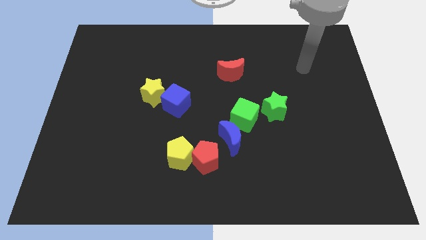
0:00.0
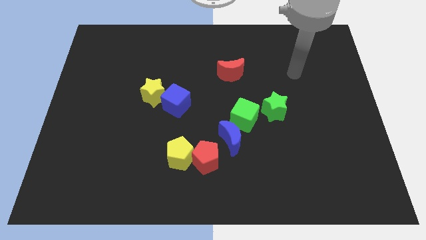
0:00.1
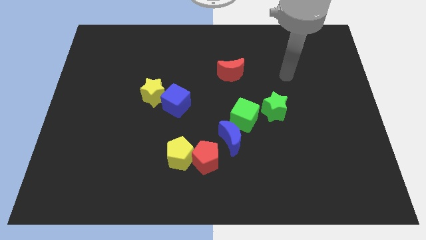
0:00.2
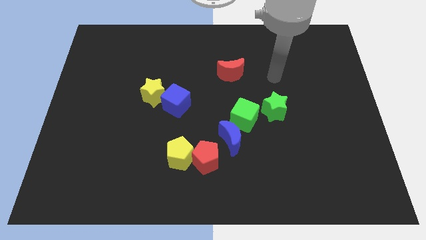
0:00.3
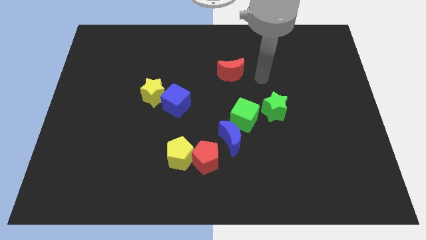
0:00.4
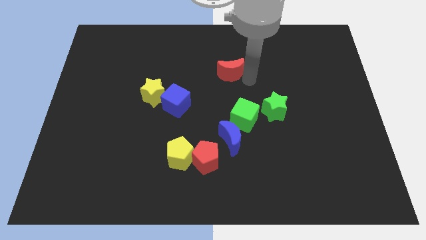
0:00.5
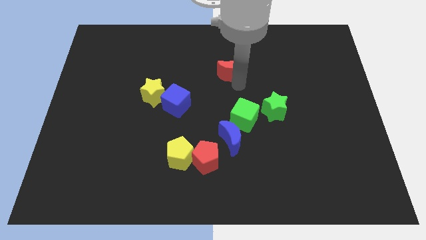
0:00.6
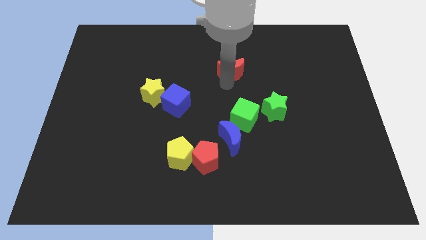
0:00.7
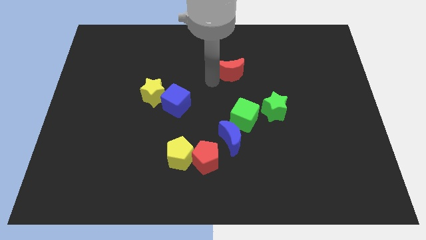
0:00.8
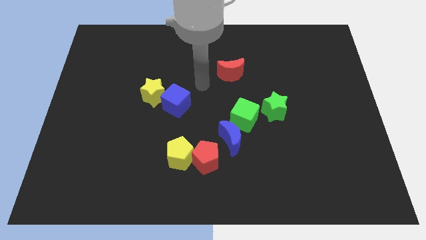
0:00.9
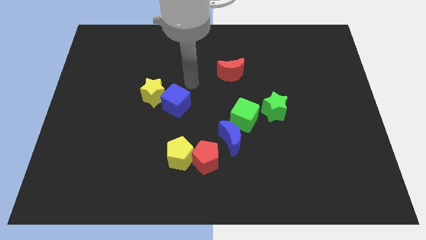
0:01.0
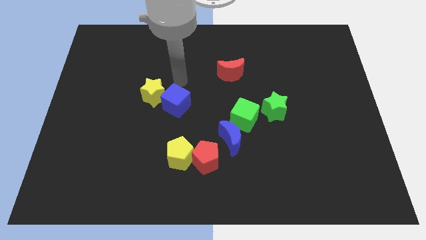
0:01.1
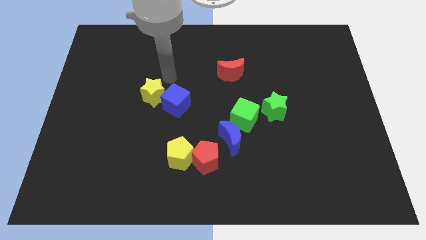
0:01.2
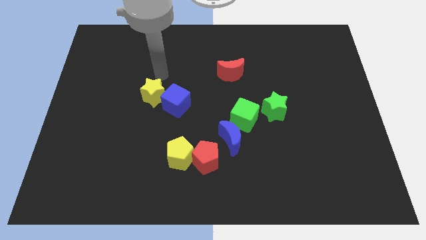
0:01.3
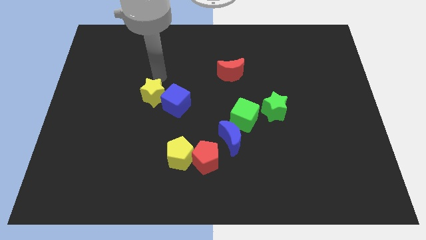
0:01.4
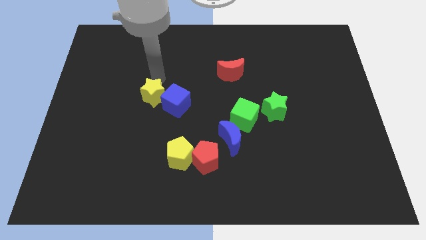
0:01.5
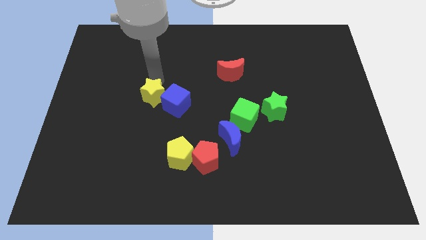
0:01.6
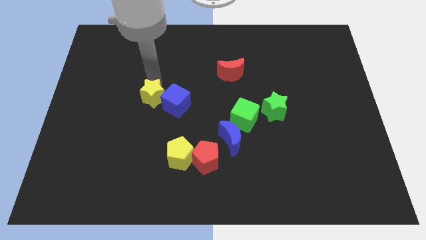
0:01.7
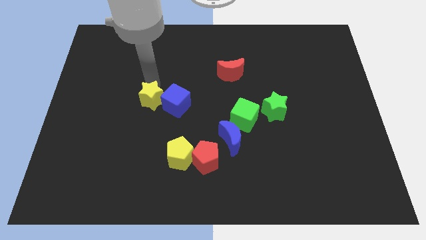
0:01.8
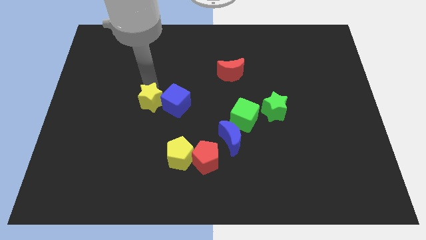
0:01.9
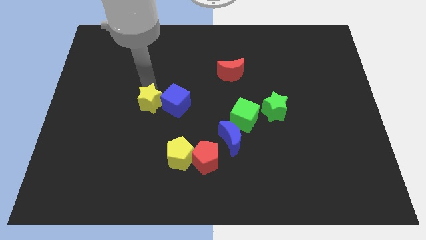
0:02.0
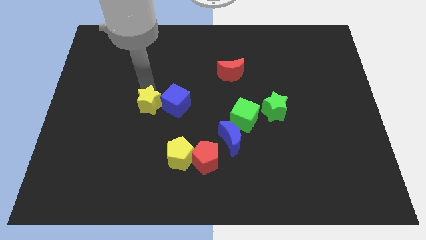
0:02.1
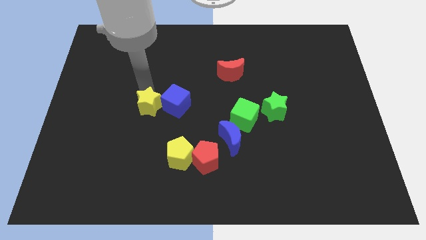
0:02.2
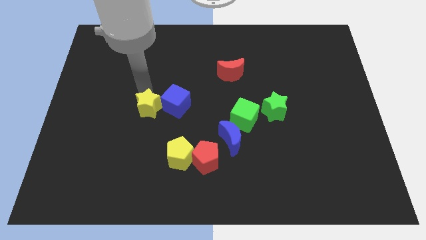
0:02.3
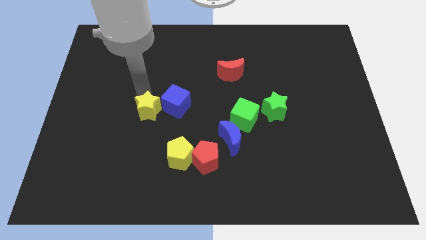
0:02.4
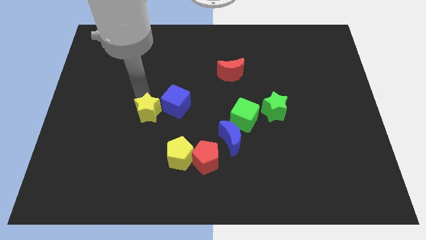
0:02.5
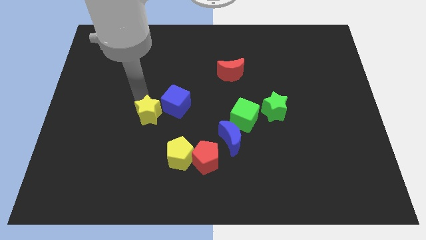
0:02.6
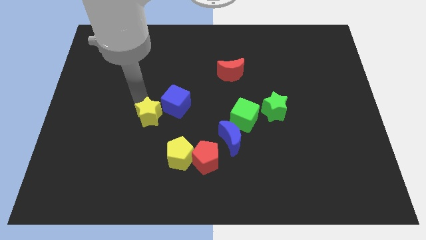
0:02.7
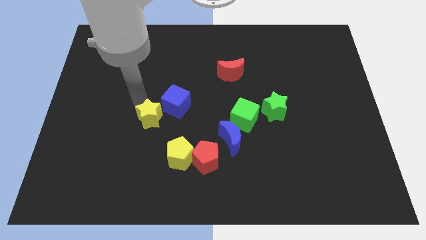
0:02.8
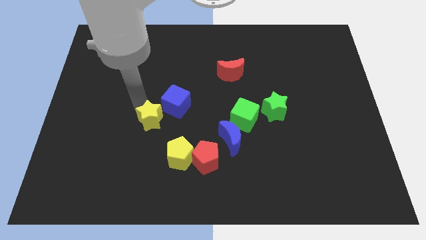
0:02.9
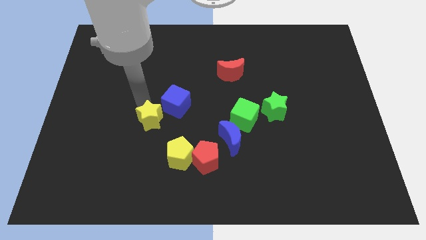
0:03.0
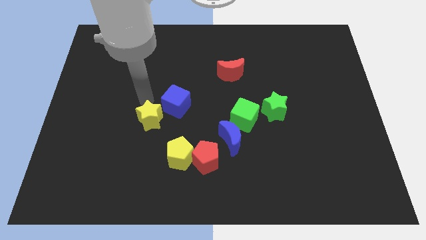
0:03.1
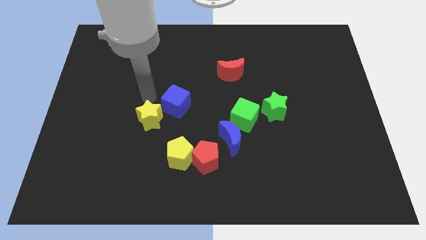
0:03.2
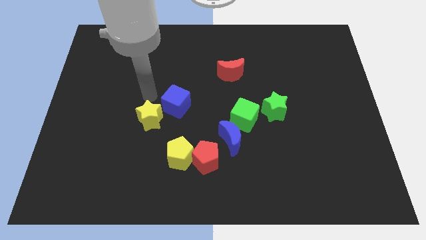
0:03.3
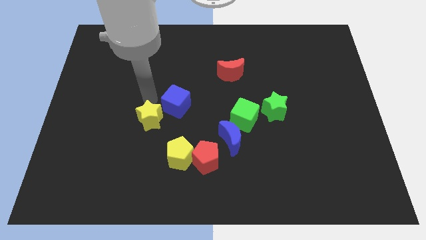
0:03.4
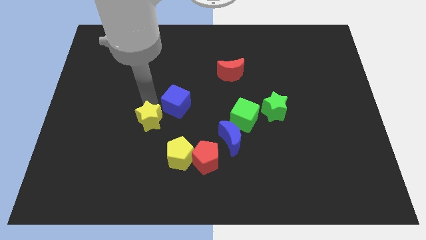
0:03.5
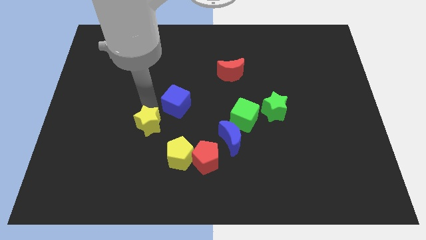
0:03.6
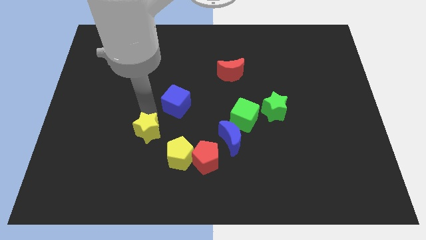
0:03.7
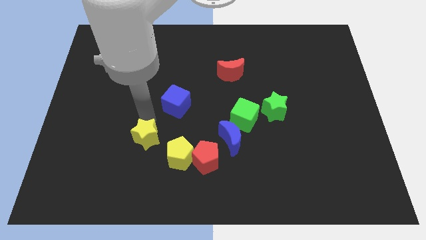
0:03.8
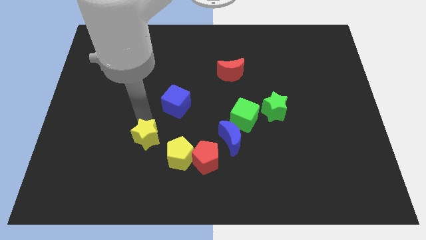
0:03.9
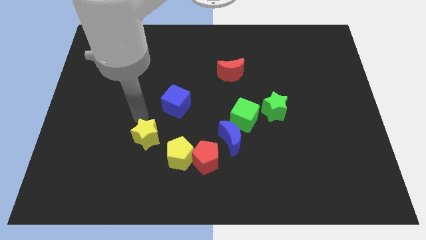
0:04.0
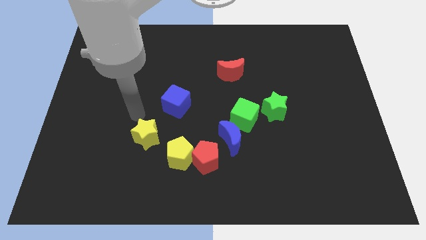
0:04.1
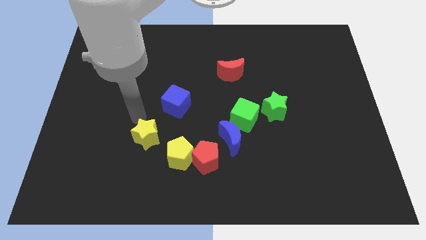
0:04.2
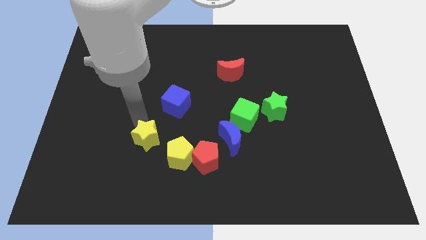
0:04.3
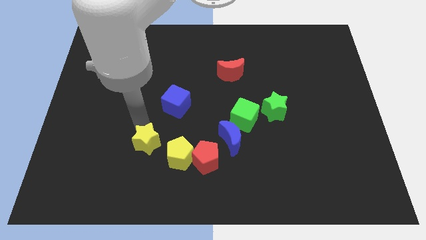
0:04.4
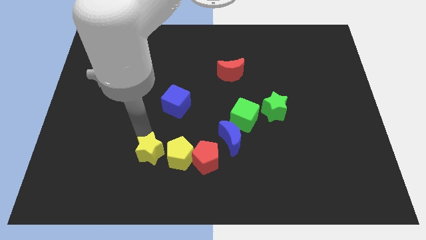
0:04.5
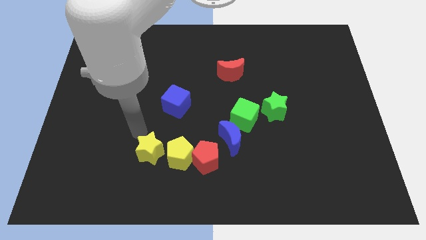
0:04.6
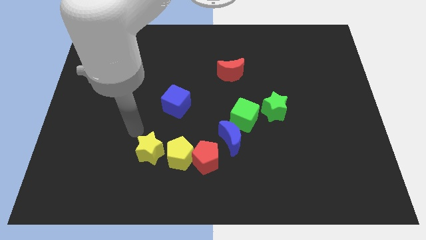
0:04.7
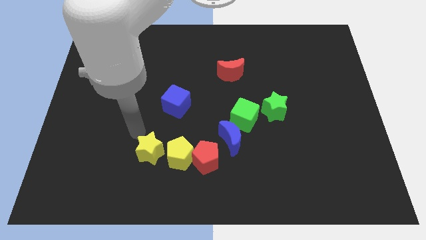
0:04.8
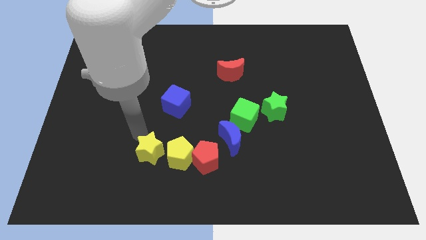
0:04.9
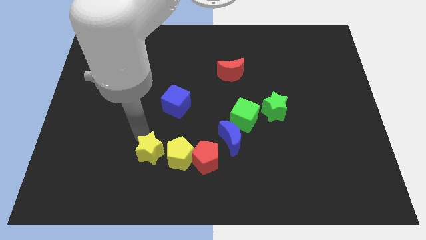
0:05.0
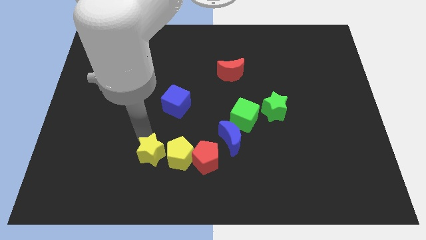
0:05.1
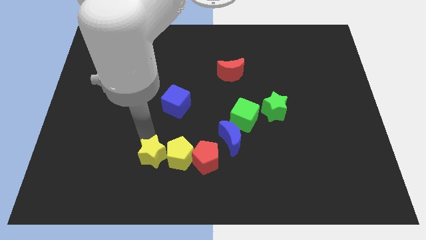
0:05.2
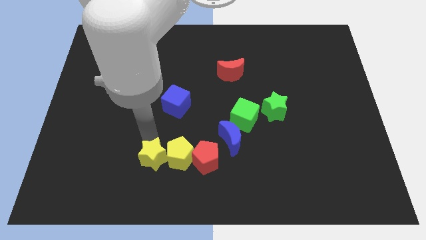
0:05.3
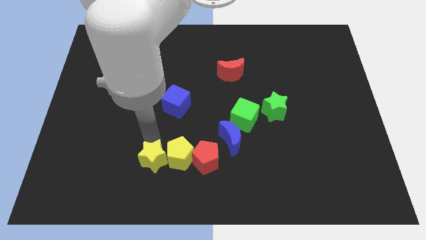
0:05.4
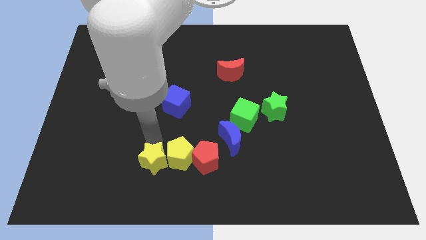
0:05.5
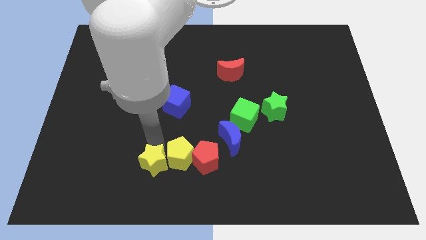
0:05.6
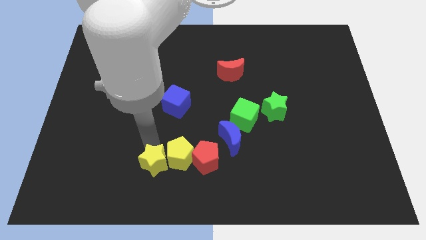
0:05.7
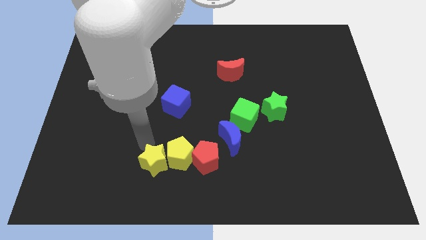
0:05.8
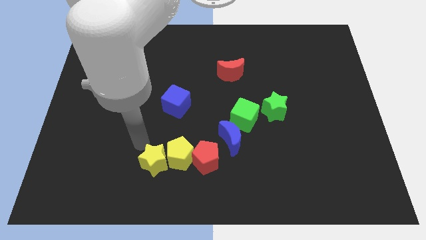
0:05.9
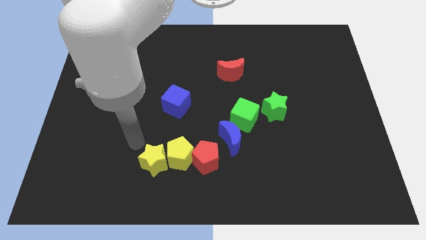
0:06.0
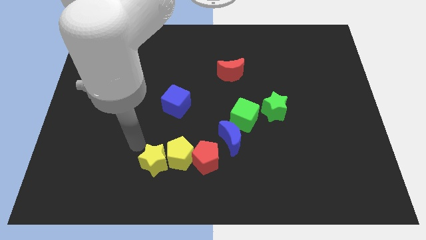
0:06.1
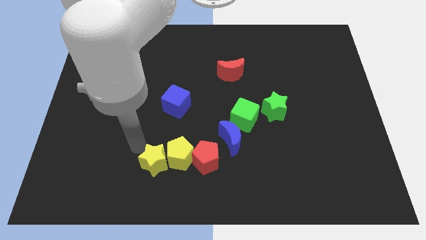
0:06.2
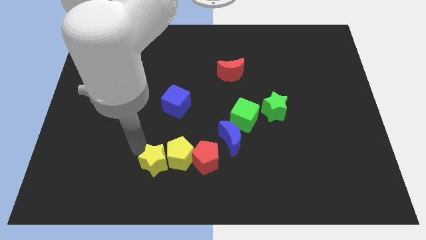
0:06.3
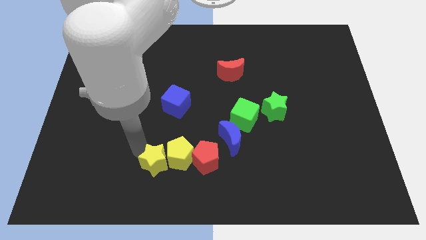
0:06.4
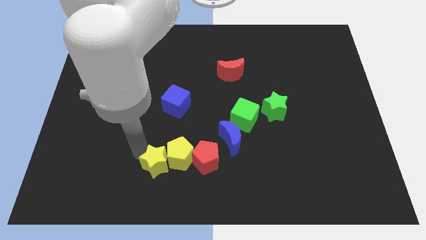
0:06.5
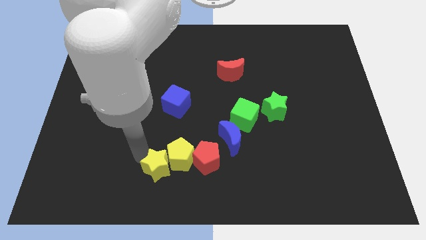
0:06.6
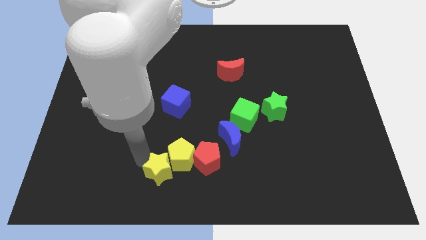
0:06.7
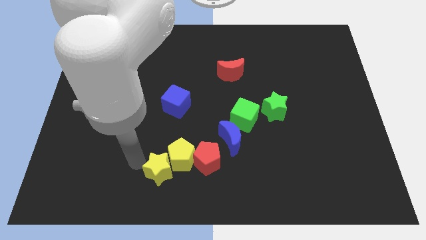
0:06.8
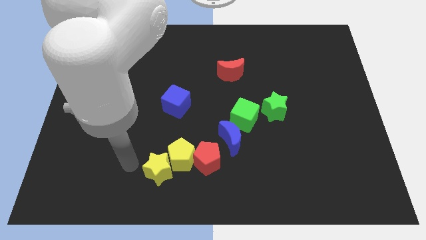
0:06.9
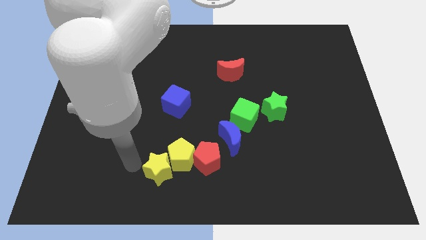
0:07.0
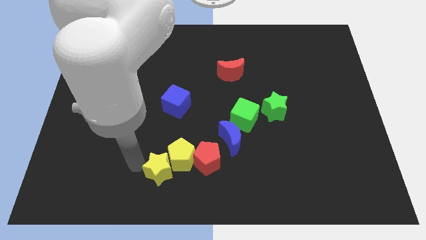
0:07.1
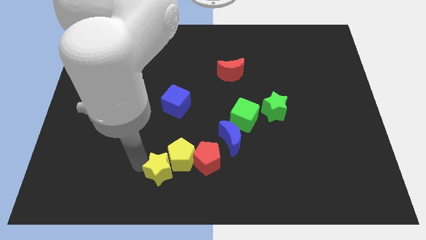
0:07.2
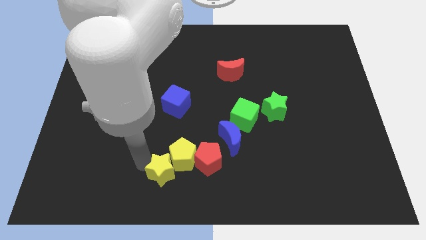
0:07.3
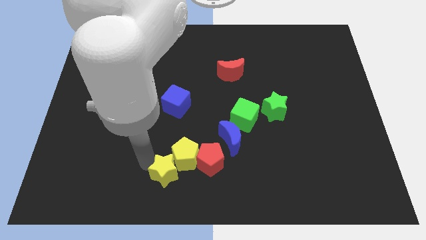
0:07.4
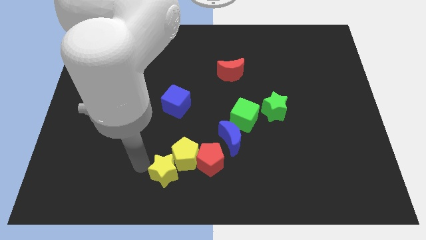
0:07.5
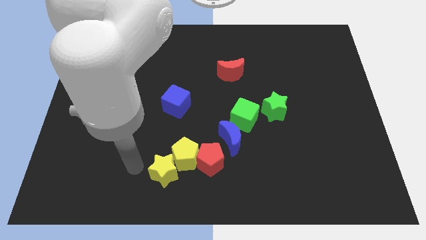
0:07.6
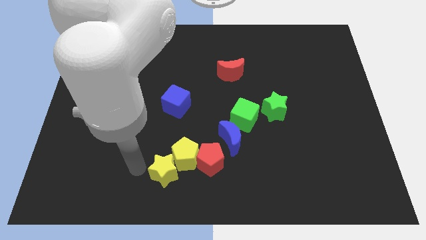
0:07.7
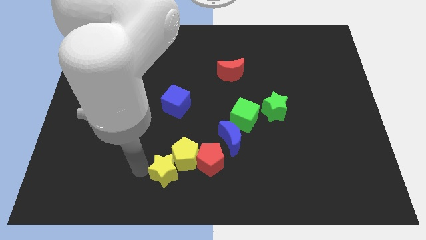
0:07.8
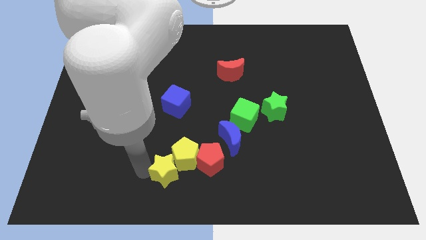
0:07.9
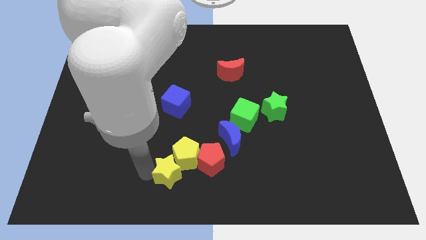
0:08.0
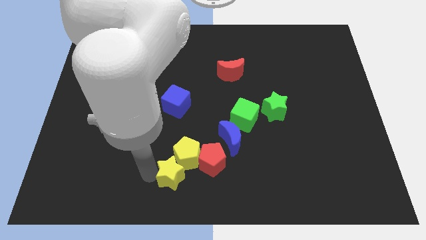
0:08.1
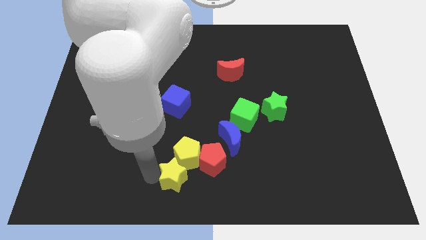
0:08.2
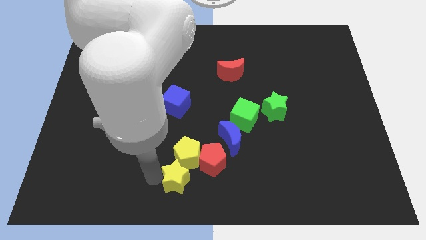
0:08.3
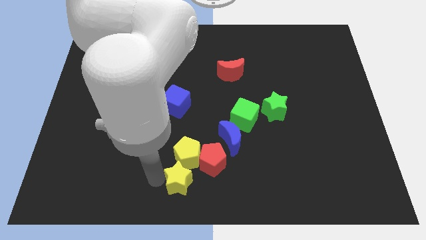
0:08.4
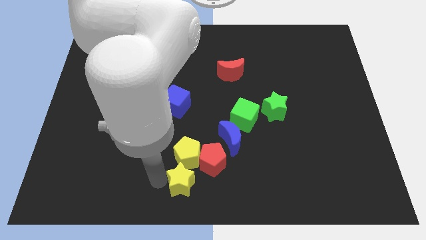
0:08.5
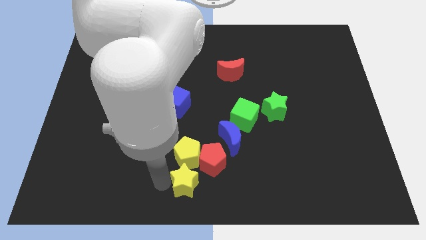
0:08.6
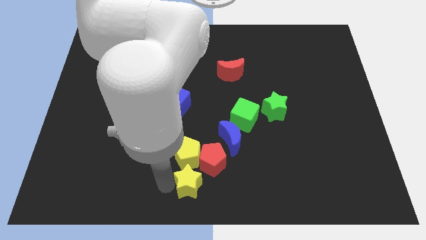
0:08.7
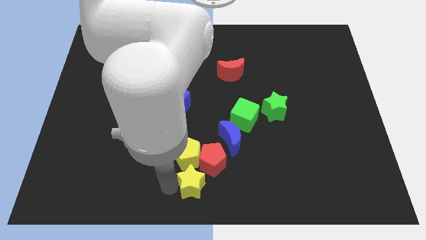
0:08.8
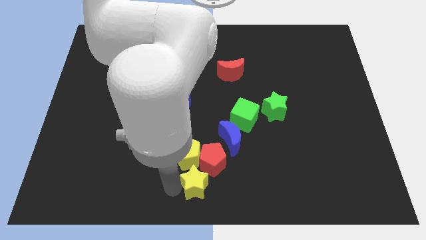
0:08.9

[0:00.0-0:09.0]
slide the yellow star down and right diagonally
